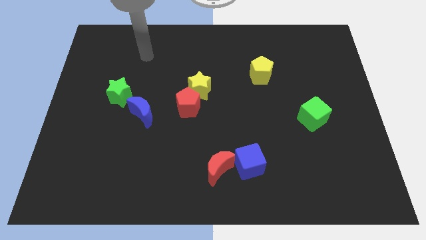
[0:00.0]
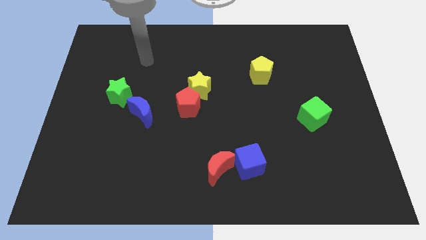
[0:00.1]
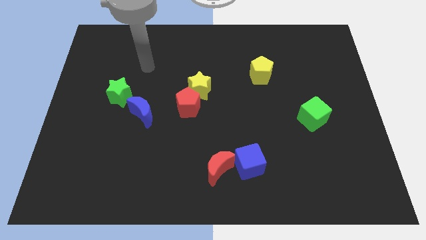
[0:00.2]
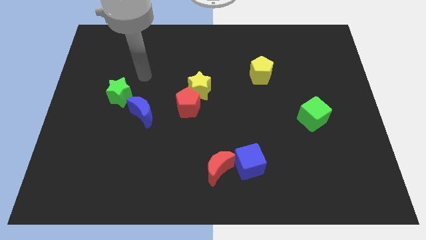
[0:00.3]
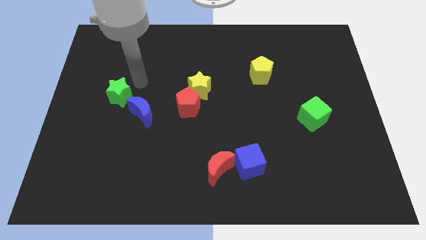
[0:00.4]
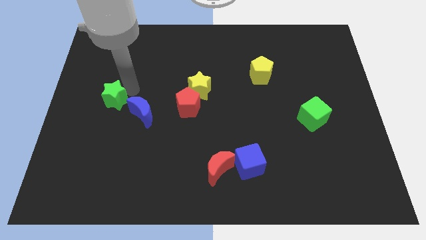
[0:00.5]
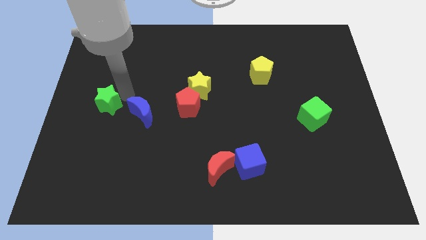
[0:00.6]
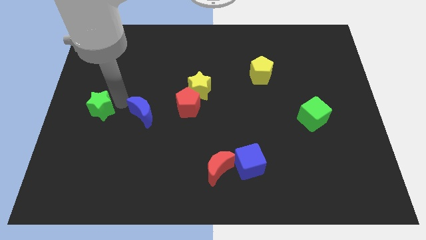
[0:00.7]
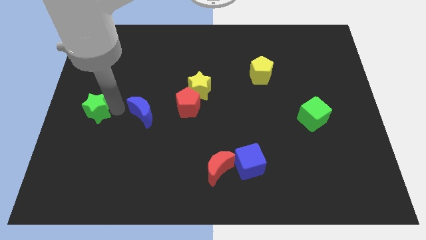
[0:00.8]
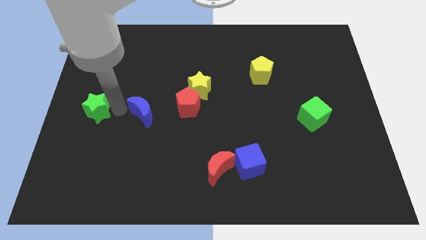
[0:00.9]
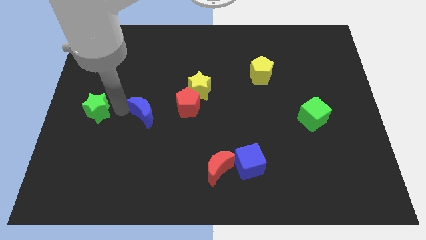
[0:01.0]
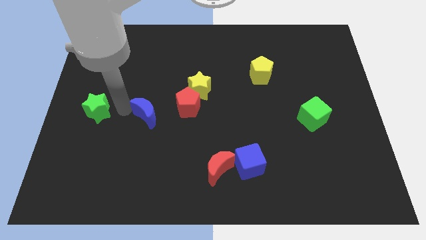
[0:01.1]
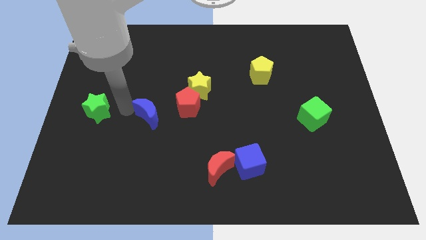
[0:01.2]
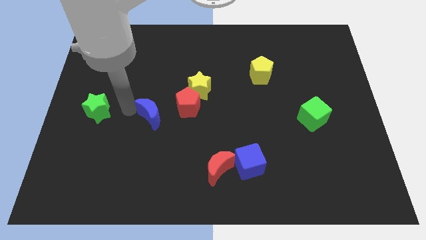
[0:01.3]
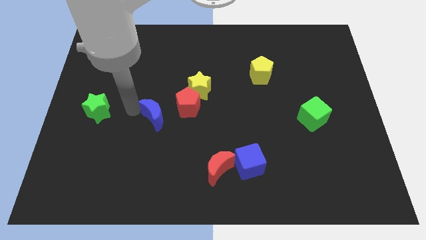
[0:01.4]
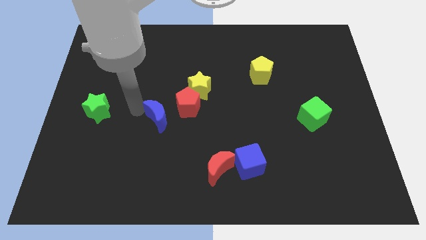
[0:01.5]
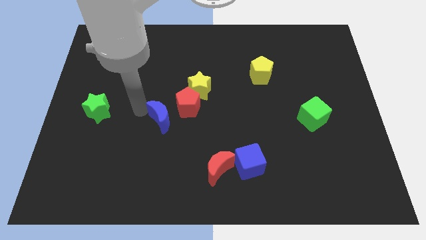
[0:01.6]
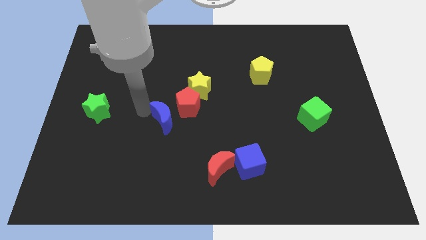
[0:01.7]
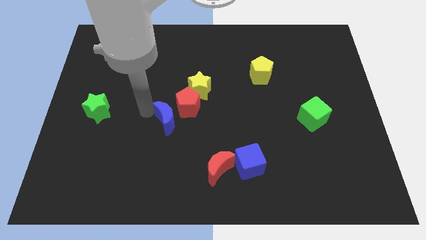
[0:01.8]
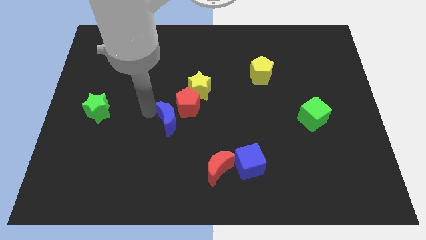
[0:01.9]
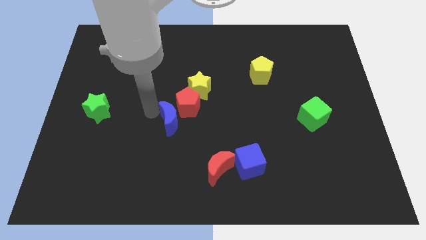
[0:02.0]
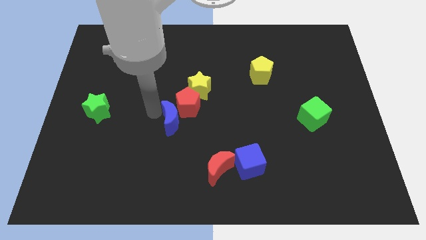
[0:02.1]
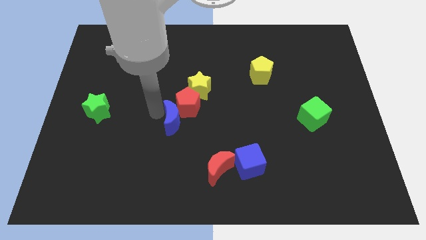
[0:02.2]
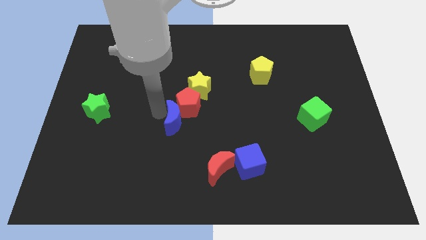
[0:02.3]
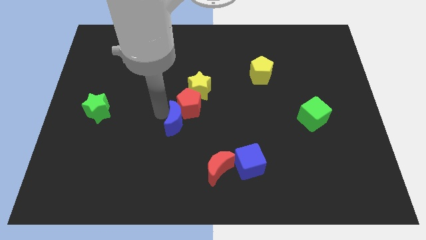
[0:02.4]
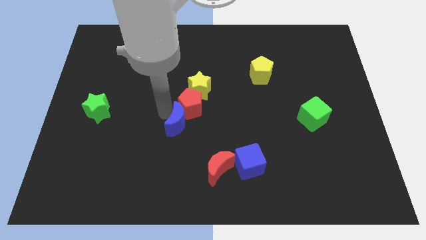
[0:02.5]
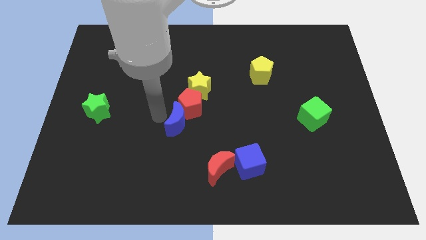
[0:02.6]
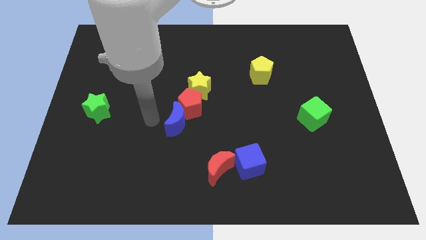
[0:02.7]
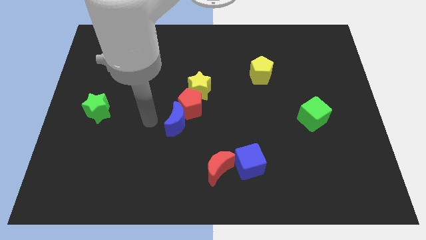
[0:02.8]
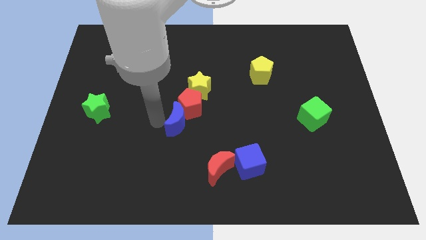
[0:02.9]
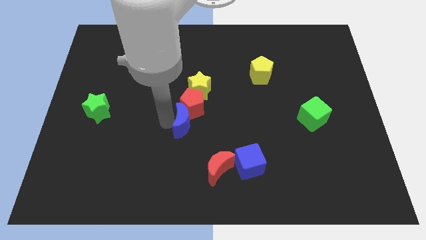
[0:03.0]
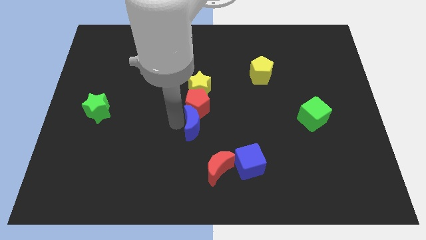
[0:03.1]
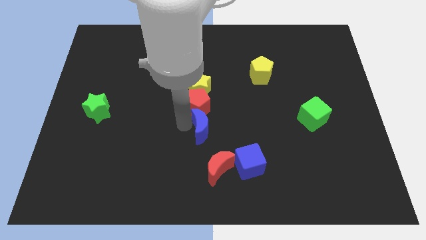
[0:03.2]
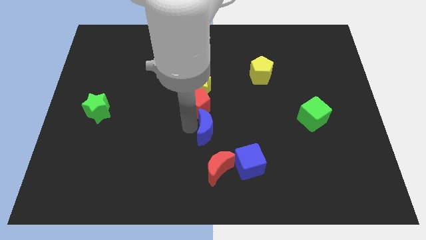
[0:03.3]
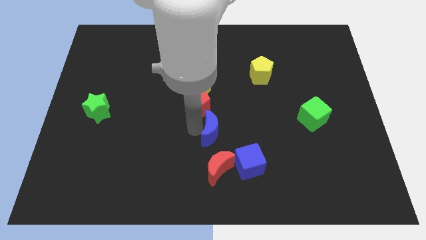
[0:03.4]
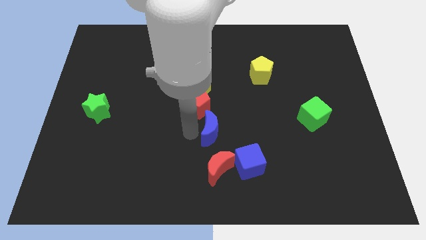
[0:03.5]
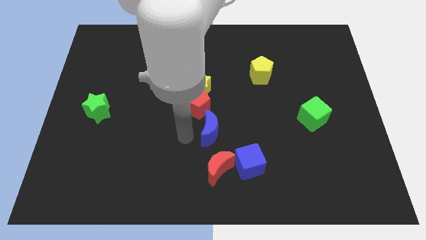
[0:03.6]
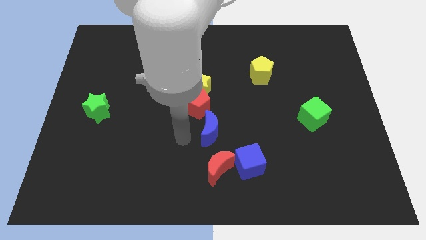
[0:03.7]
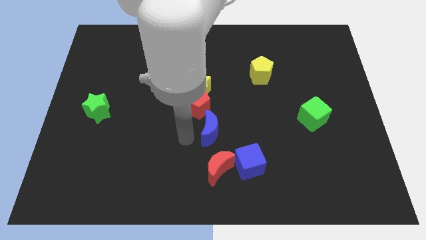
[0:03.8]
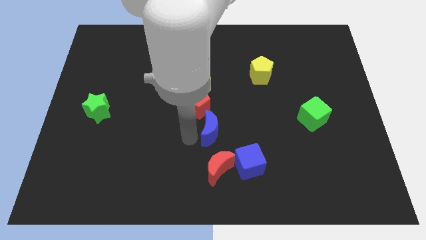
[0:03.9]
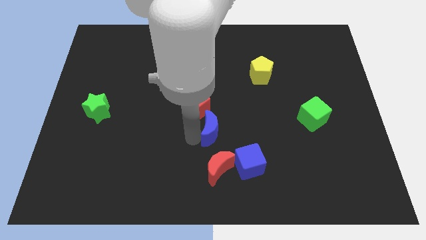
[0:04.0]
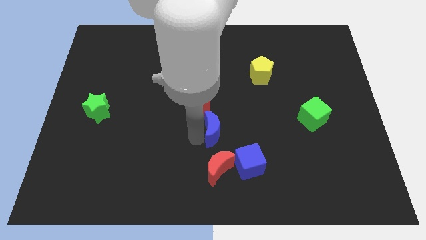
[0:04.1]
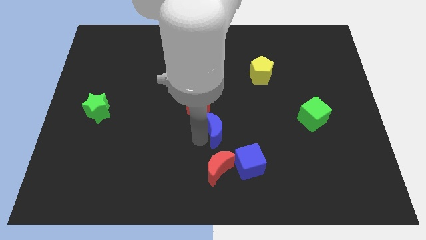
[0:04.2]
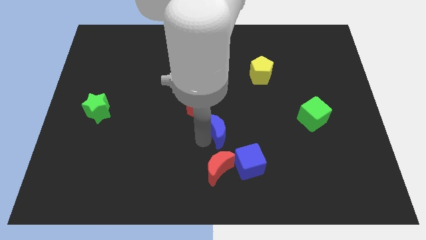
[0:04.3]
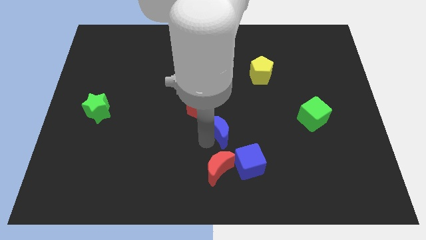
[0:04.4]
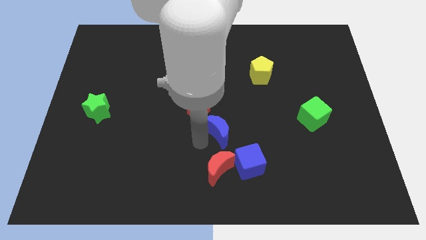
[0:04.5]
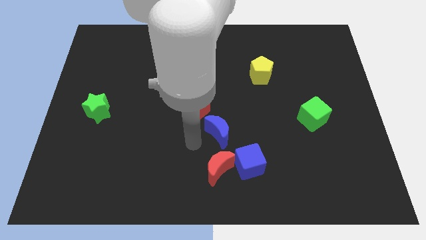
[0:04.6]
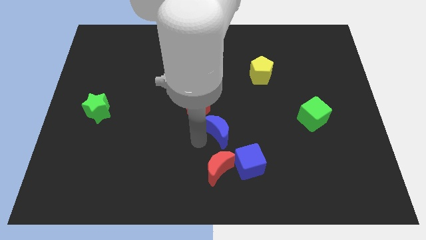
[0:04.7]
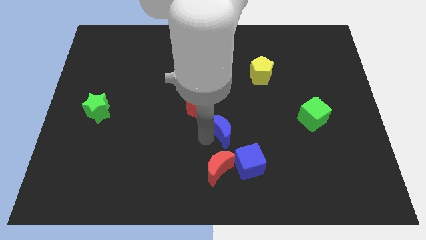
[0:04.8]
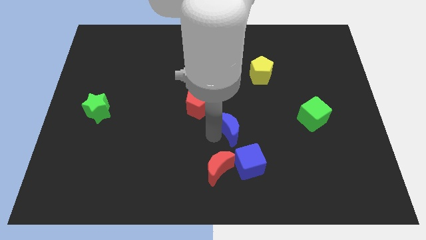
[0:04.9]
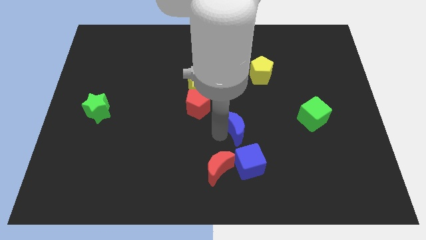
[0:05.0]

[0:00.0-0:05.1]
move the blue moon to the right

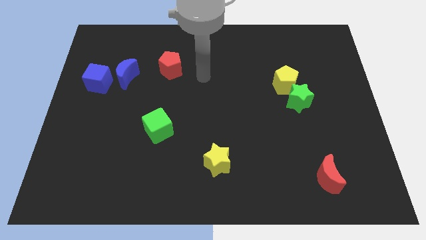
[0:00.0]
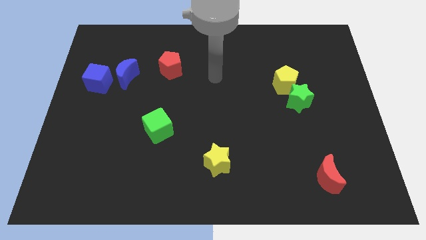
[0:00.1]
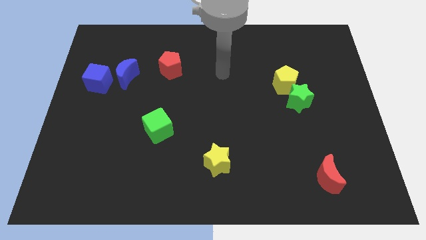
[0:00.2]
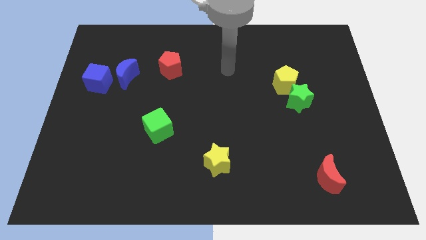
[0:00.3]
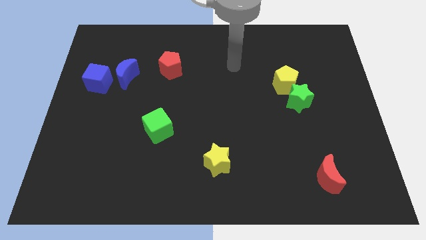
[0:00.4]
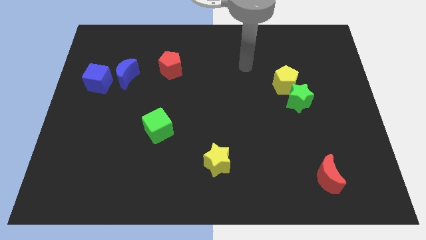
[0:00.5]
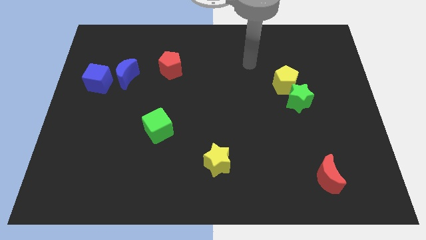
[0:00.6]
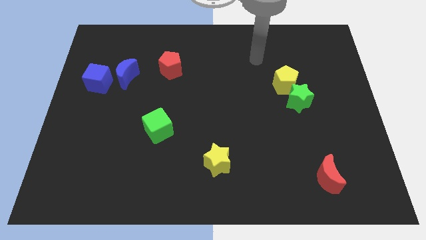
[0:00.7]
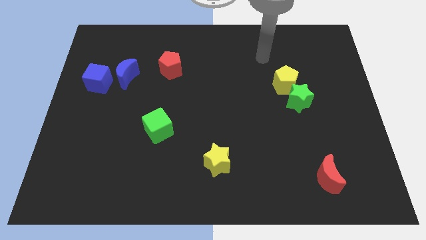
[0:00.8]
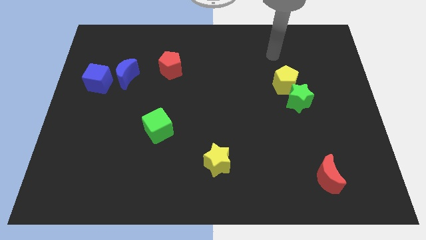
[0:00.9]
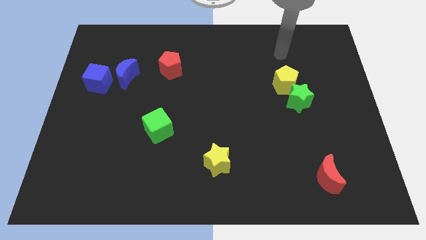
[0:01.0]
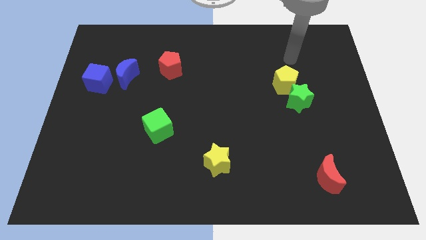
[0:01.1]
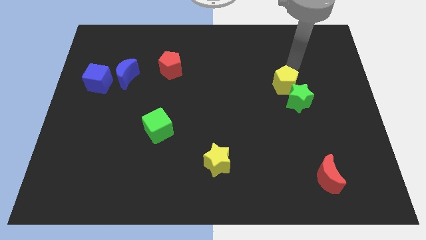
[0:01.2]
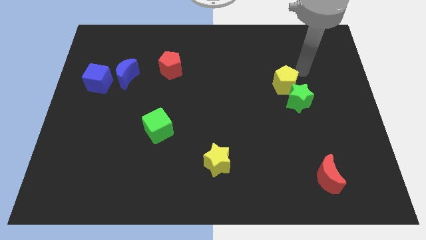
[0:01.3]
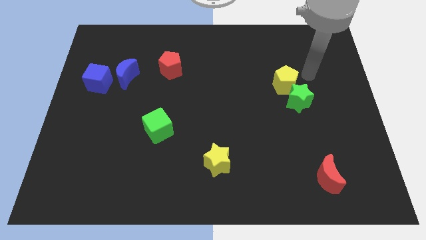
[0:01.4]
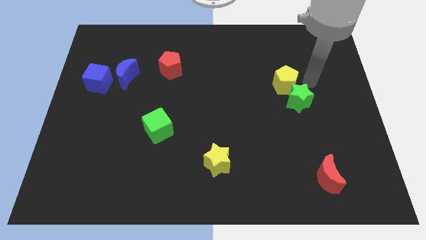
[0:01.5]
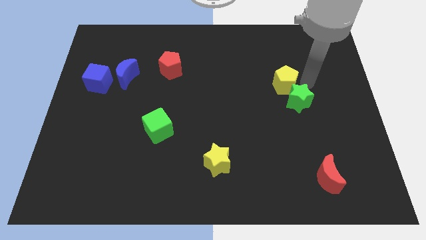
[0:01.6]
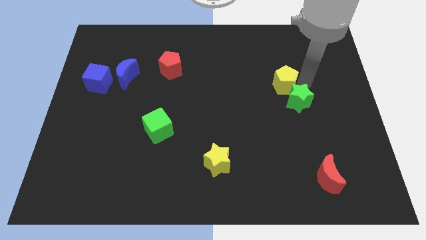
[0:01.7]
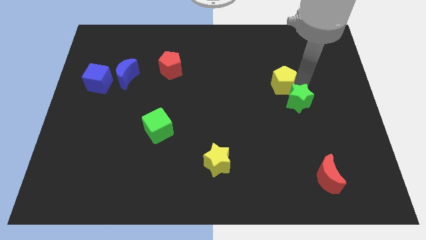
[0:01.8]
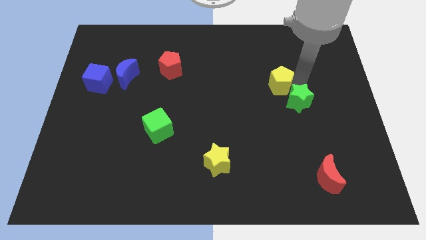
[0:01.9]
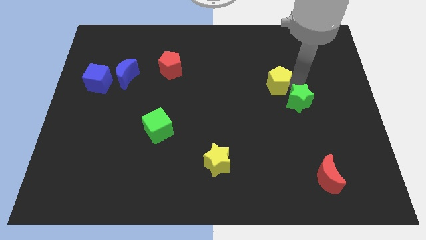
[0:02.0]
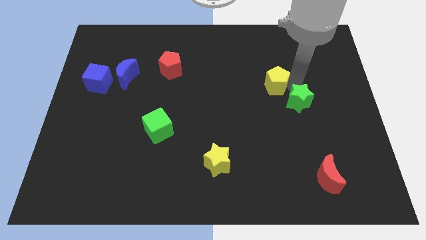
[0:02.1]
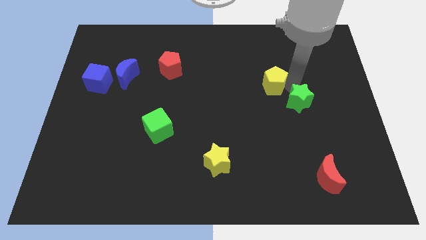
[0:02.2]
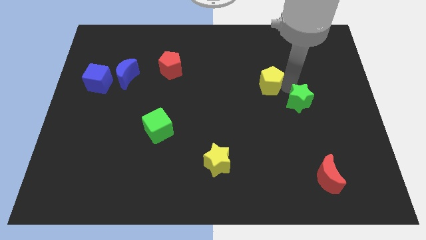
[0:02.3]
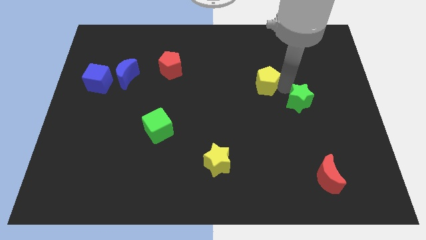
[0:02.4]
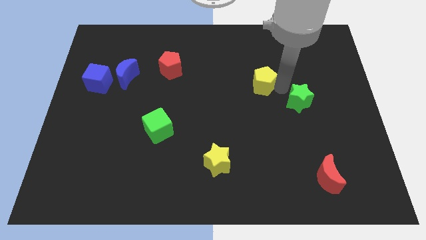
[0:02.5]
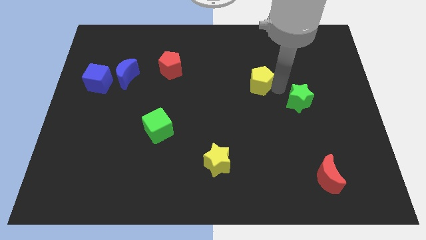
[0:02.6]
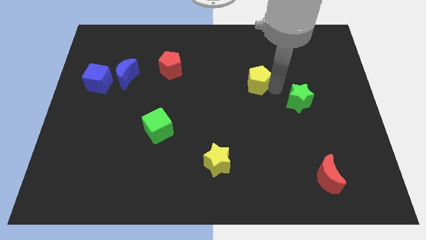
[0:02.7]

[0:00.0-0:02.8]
slightly push the yellow pentagon to the left

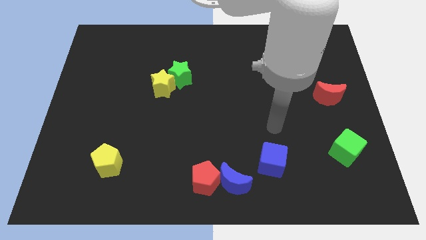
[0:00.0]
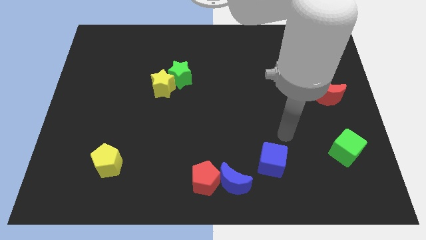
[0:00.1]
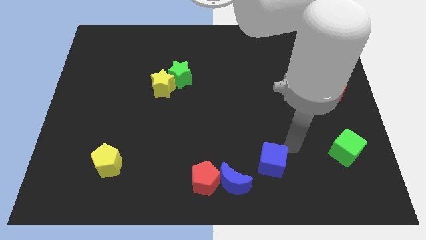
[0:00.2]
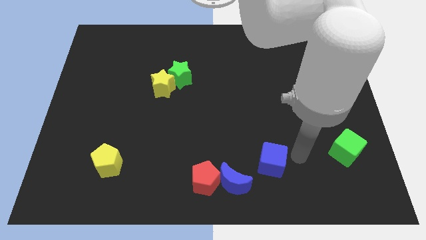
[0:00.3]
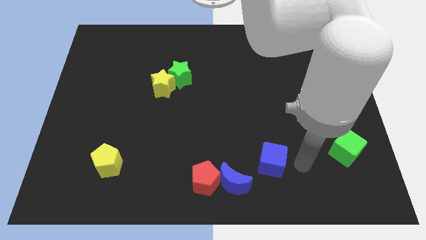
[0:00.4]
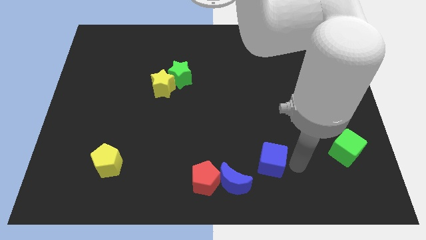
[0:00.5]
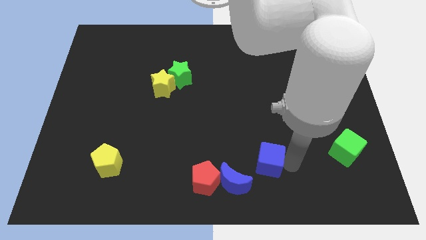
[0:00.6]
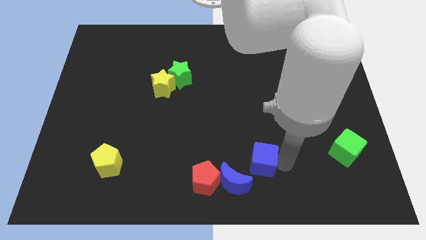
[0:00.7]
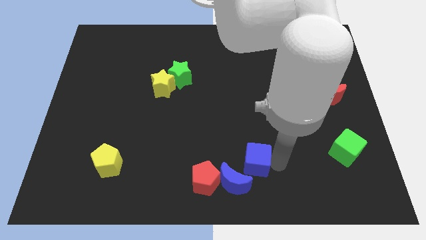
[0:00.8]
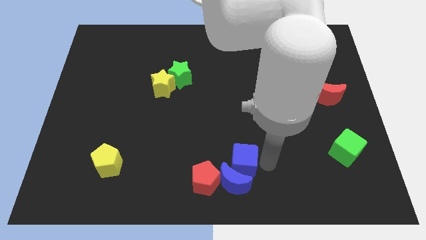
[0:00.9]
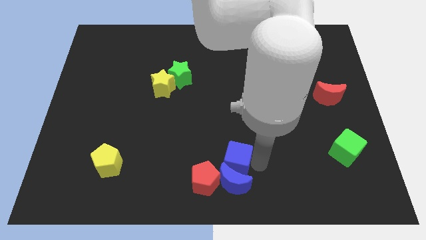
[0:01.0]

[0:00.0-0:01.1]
slide the blue cube to the left slightly
